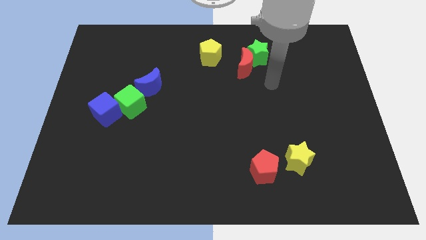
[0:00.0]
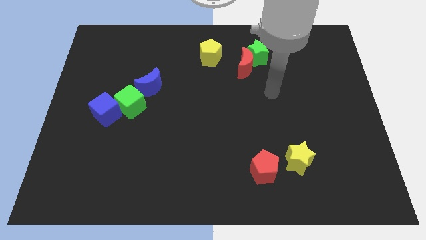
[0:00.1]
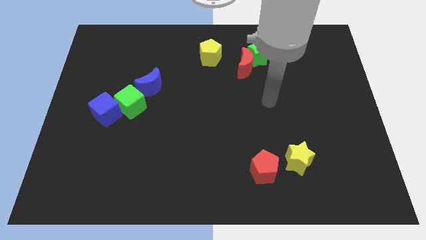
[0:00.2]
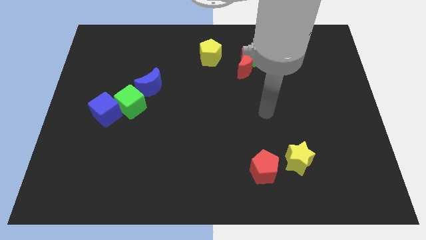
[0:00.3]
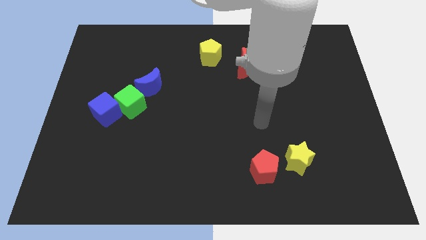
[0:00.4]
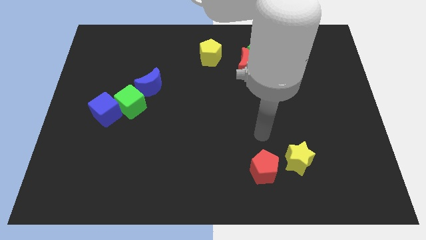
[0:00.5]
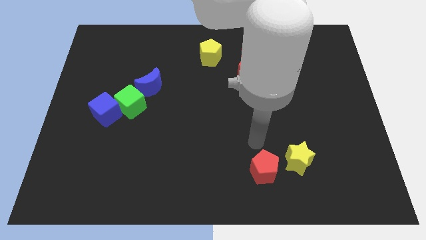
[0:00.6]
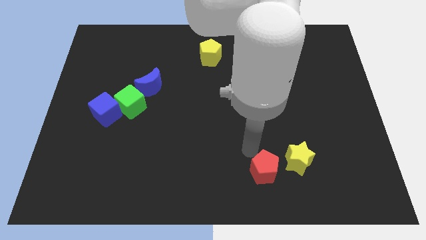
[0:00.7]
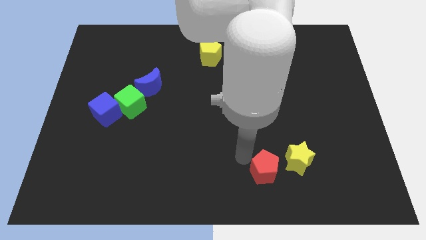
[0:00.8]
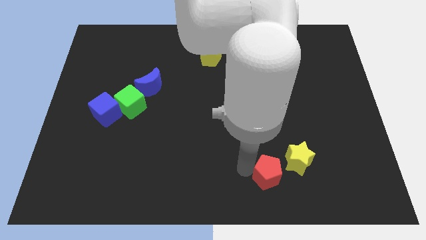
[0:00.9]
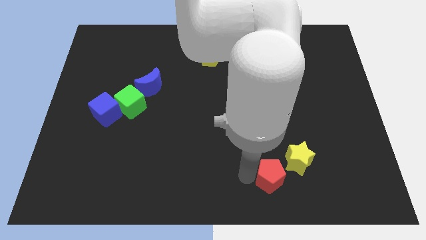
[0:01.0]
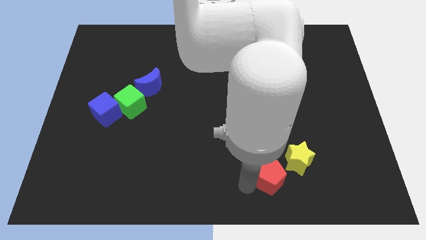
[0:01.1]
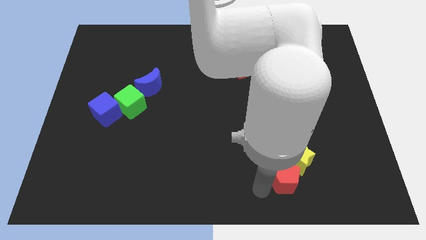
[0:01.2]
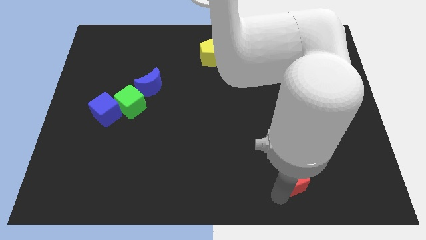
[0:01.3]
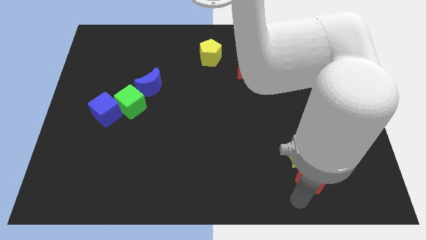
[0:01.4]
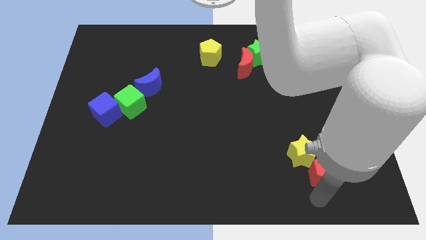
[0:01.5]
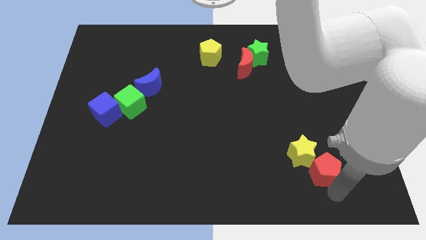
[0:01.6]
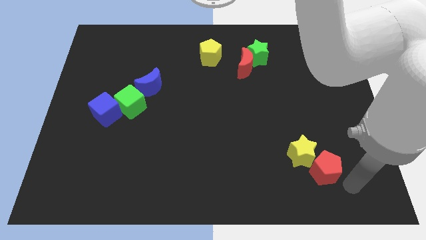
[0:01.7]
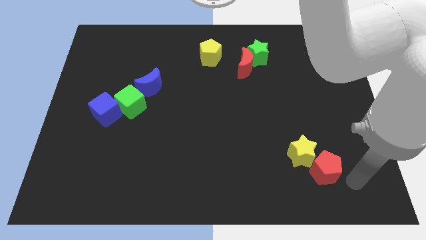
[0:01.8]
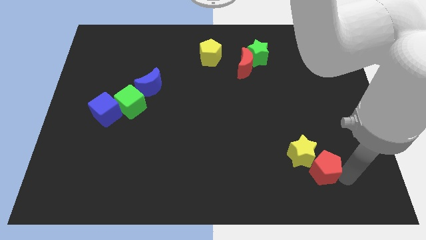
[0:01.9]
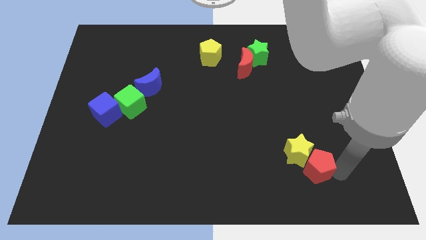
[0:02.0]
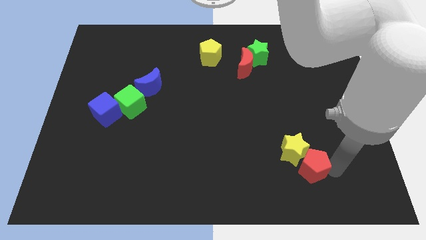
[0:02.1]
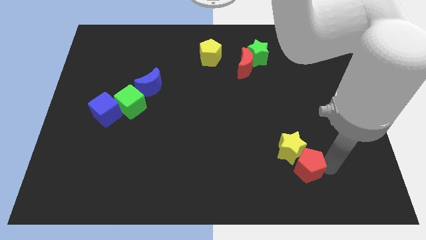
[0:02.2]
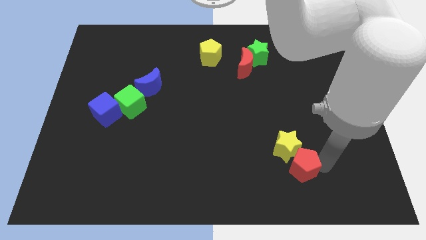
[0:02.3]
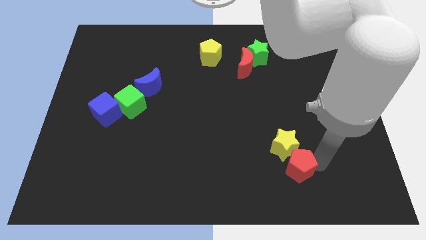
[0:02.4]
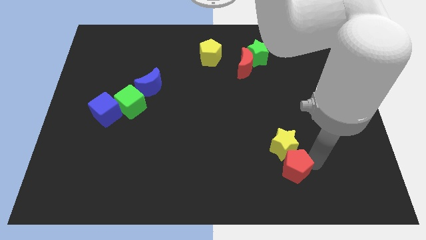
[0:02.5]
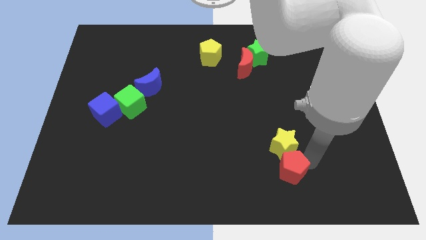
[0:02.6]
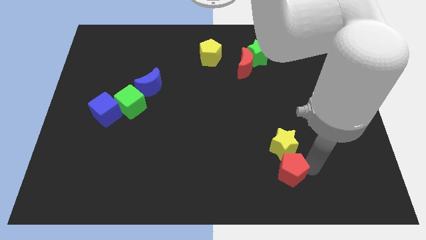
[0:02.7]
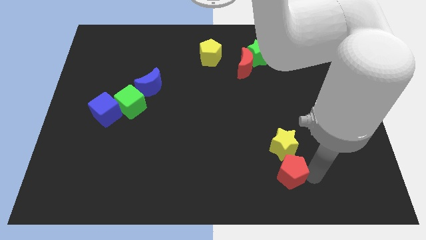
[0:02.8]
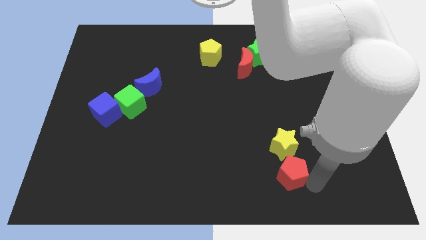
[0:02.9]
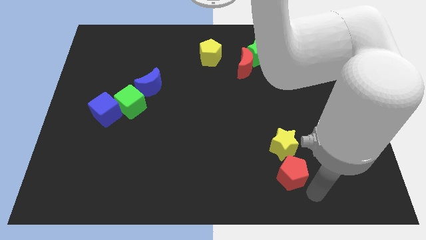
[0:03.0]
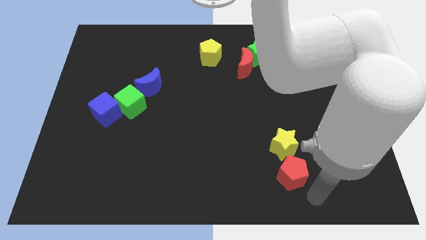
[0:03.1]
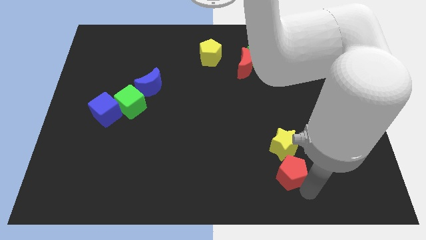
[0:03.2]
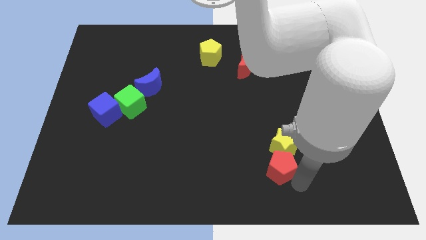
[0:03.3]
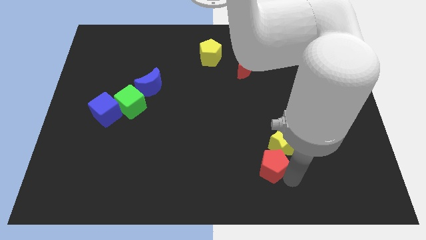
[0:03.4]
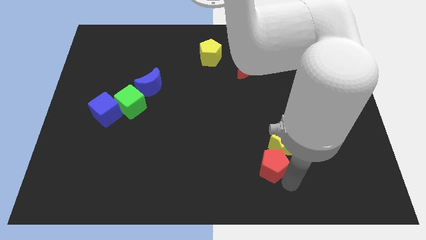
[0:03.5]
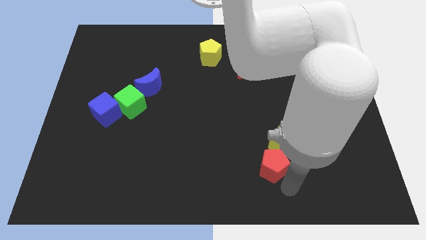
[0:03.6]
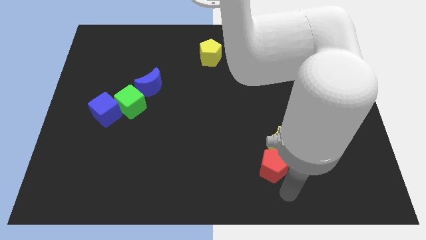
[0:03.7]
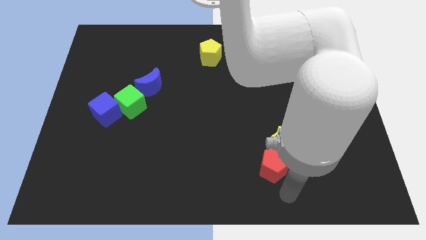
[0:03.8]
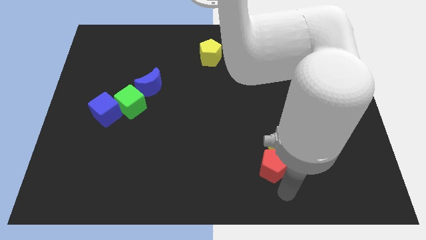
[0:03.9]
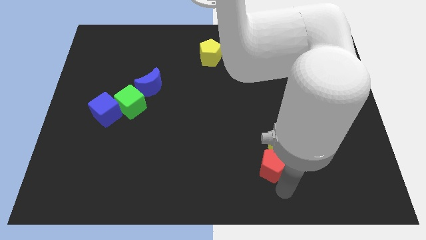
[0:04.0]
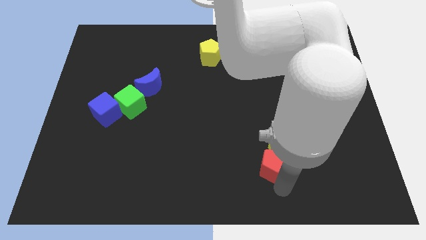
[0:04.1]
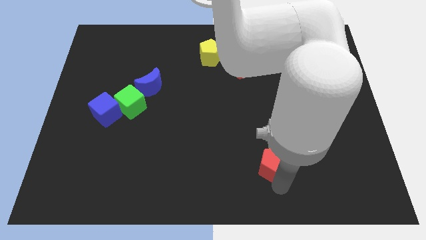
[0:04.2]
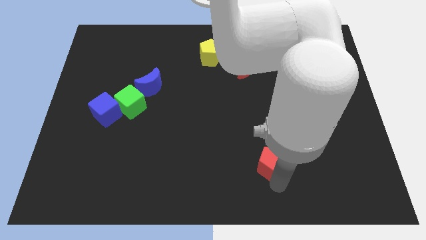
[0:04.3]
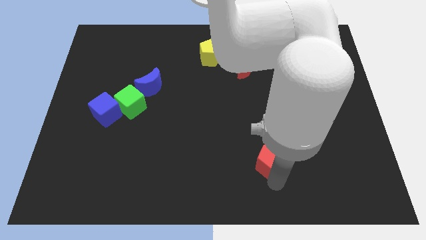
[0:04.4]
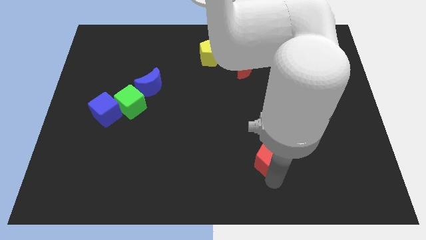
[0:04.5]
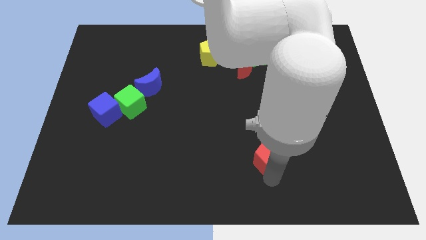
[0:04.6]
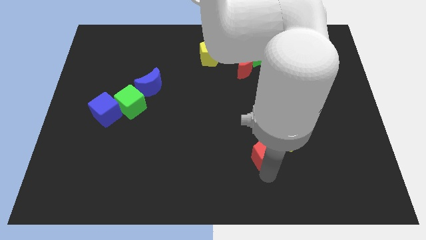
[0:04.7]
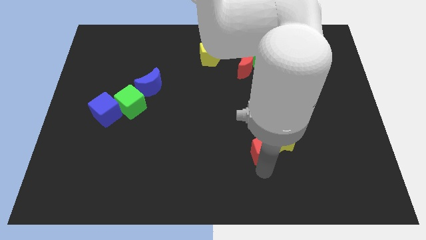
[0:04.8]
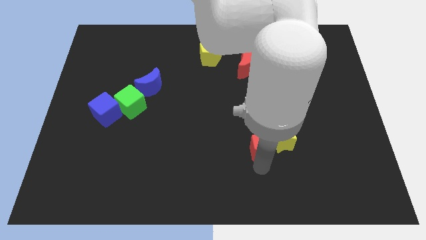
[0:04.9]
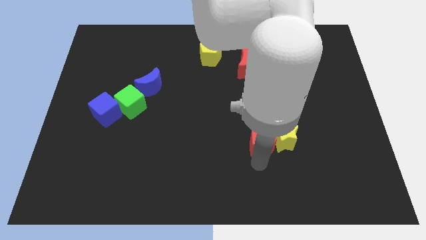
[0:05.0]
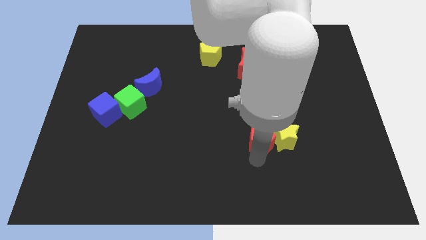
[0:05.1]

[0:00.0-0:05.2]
slightly push the red pentagon upwards
